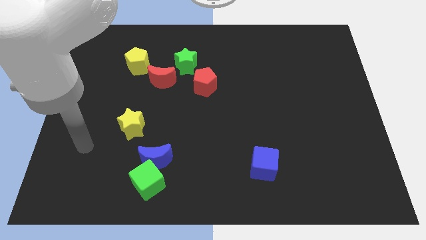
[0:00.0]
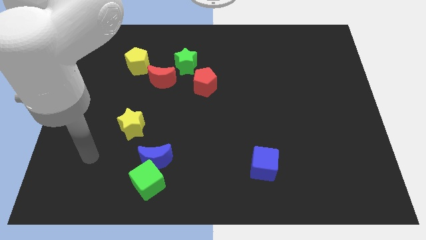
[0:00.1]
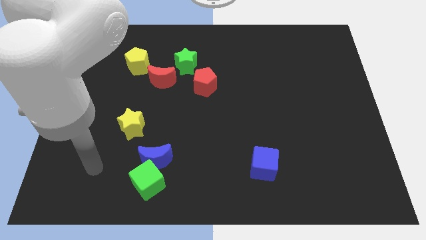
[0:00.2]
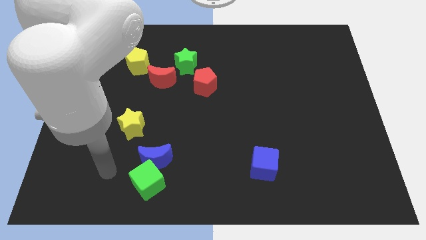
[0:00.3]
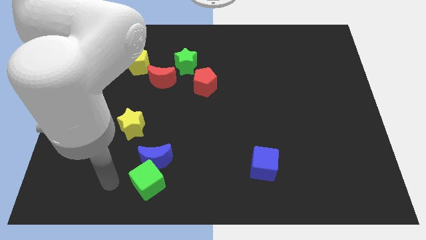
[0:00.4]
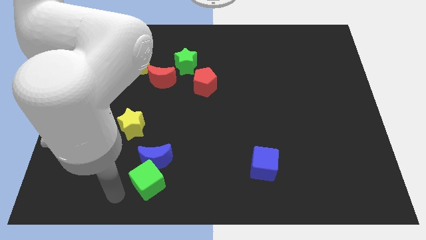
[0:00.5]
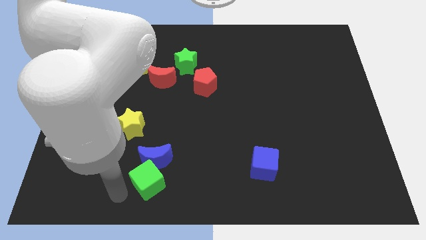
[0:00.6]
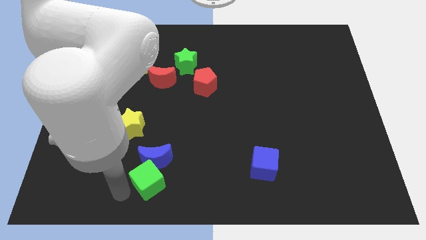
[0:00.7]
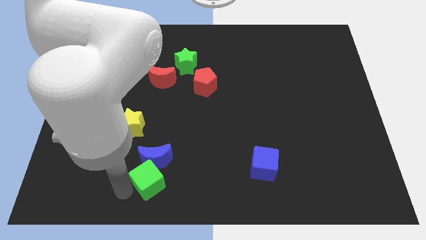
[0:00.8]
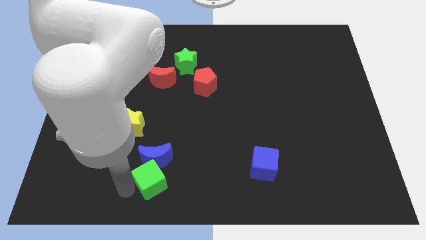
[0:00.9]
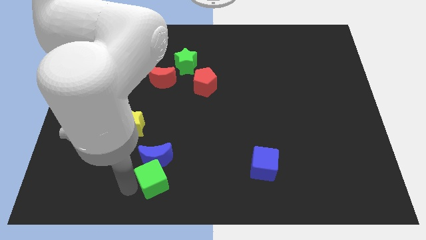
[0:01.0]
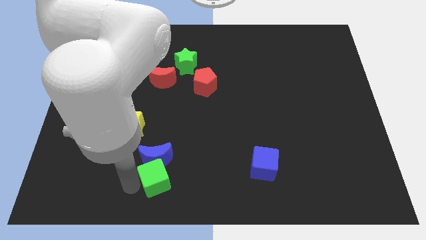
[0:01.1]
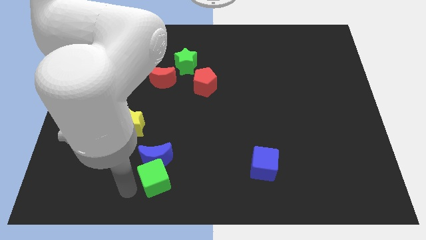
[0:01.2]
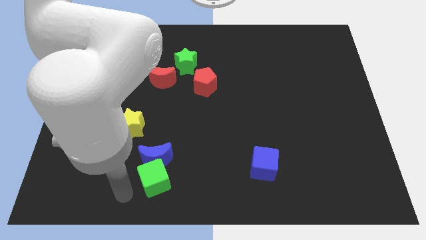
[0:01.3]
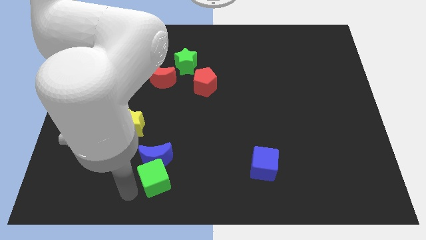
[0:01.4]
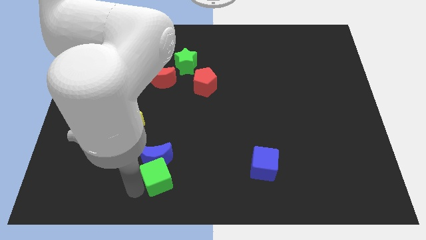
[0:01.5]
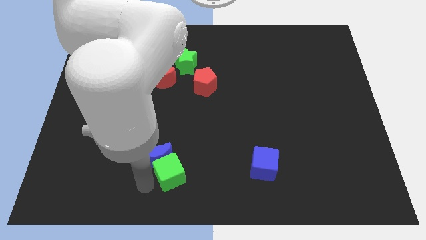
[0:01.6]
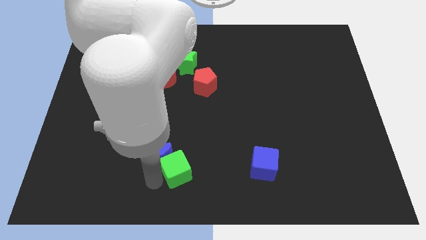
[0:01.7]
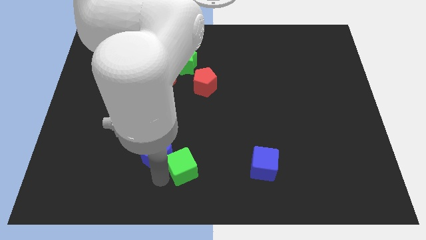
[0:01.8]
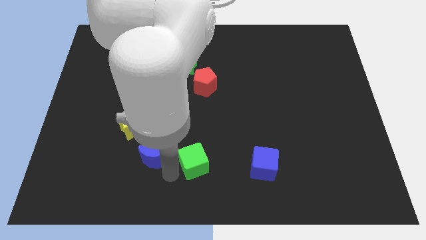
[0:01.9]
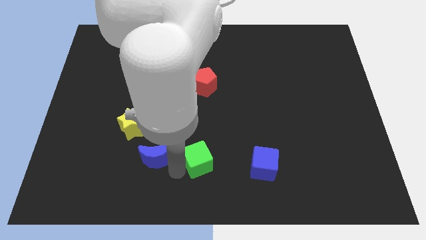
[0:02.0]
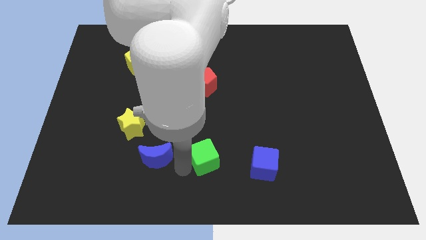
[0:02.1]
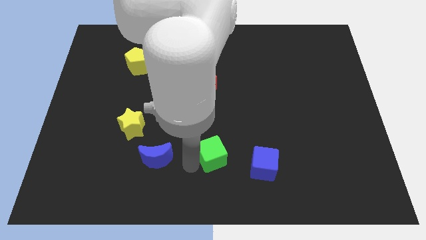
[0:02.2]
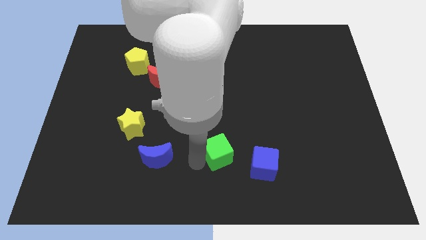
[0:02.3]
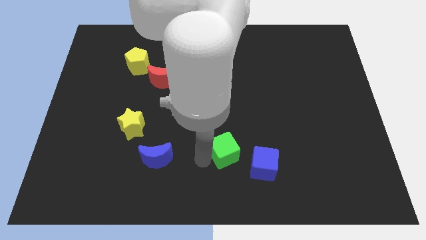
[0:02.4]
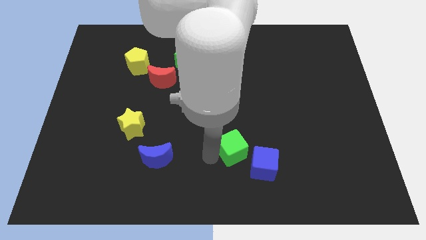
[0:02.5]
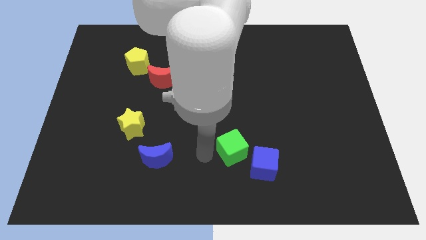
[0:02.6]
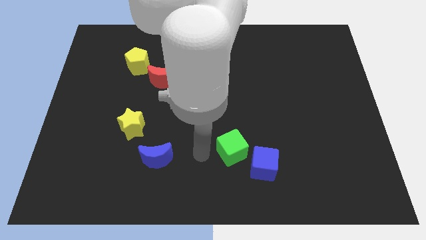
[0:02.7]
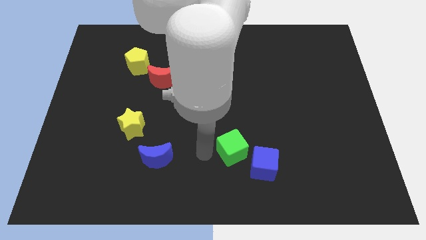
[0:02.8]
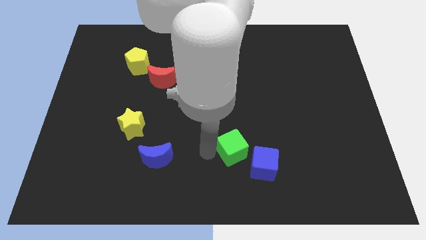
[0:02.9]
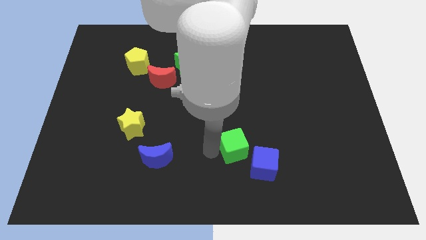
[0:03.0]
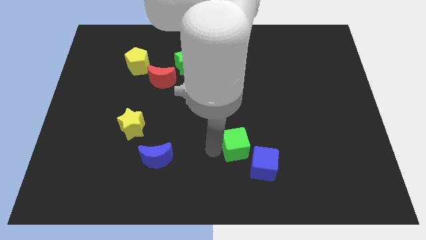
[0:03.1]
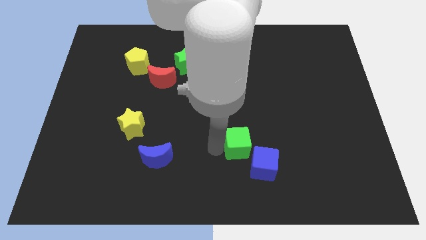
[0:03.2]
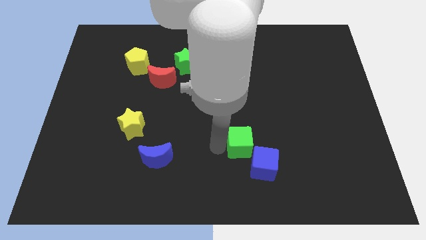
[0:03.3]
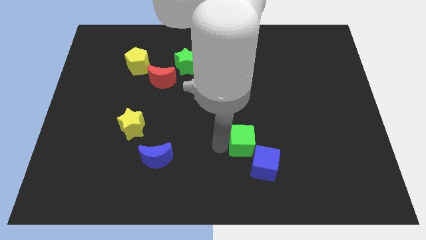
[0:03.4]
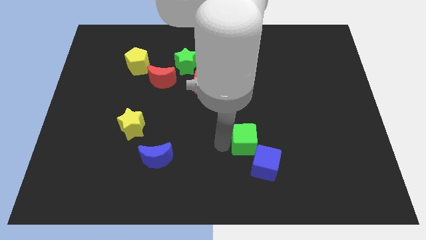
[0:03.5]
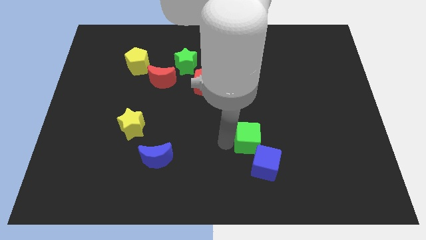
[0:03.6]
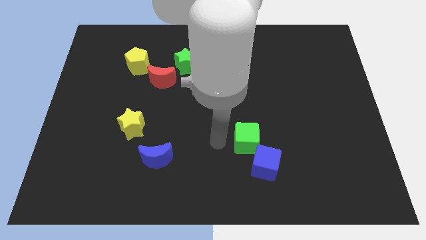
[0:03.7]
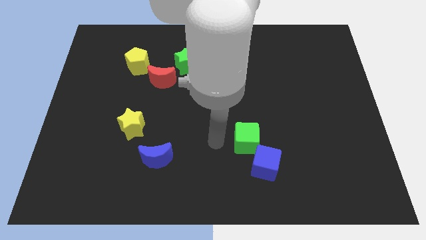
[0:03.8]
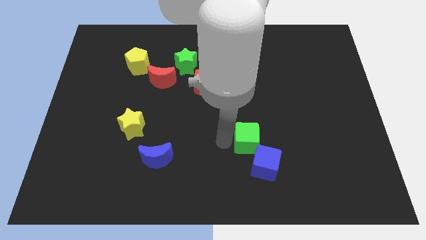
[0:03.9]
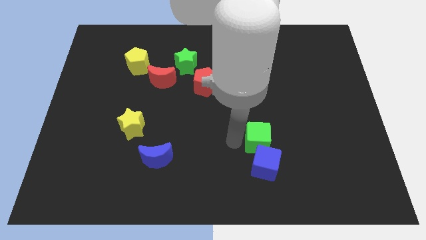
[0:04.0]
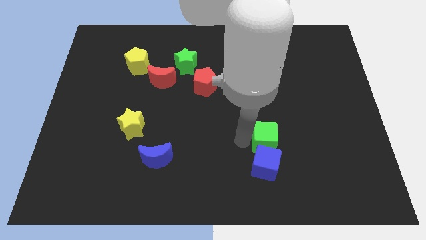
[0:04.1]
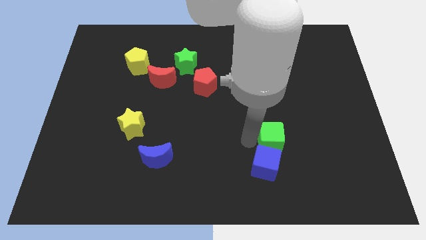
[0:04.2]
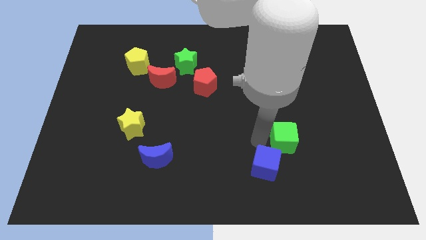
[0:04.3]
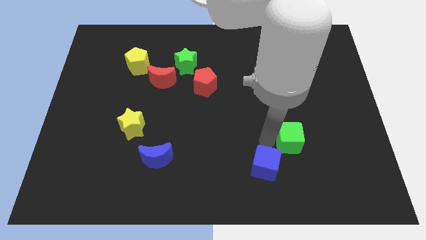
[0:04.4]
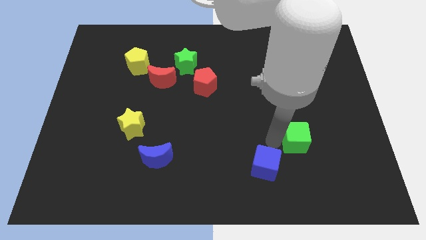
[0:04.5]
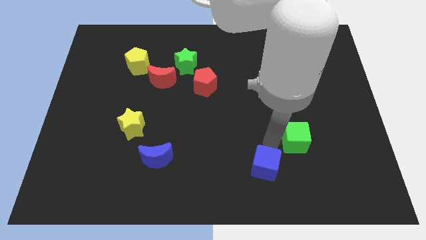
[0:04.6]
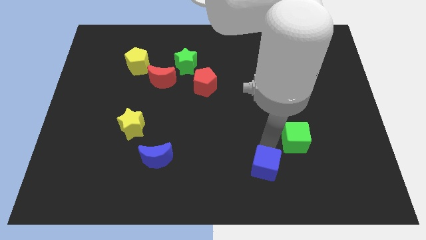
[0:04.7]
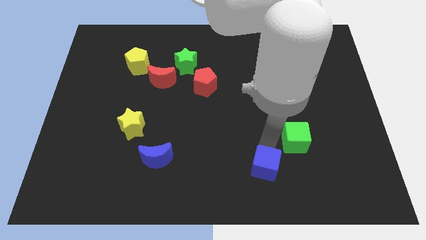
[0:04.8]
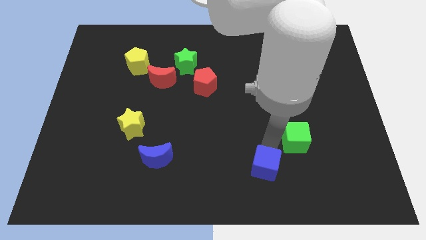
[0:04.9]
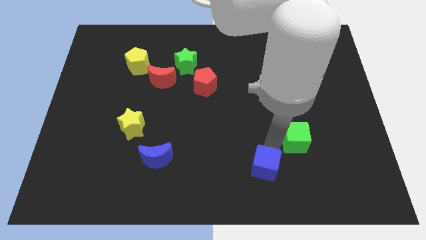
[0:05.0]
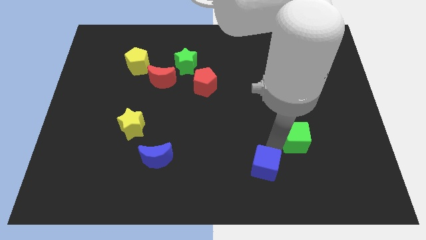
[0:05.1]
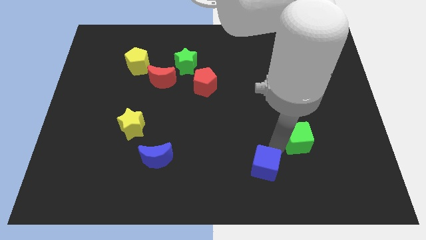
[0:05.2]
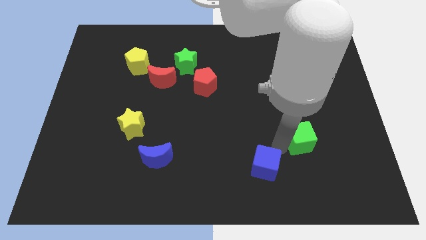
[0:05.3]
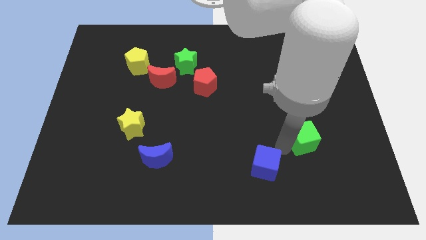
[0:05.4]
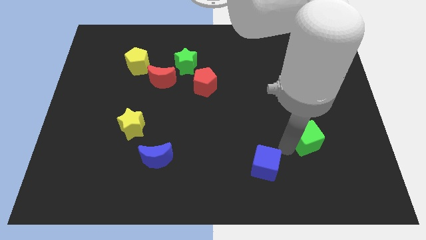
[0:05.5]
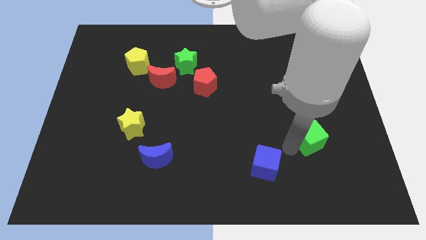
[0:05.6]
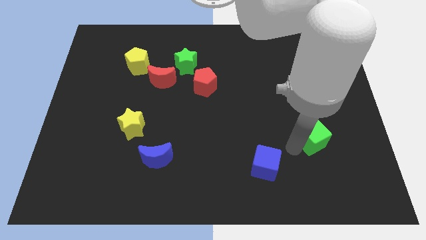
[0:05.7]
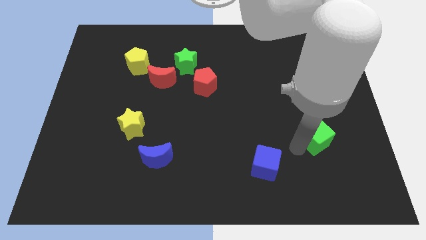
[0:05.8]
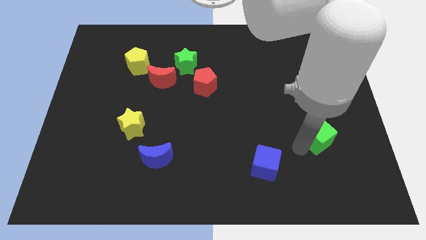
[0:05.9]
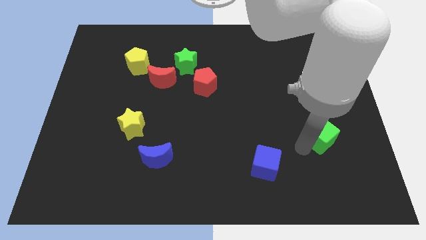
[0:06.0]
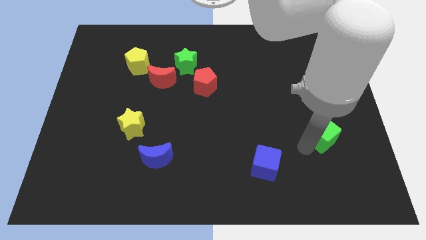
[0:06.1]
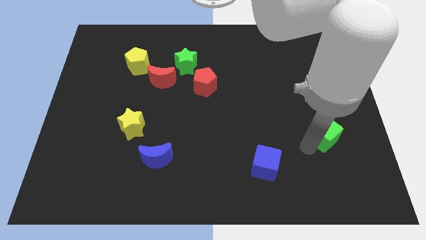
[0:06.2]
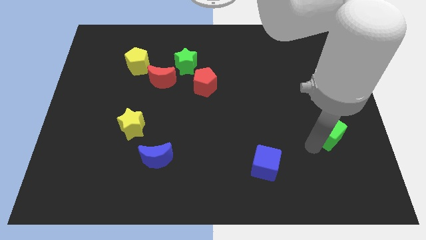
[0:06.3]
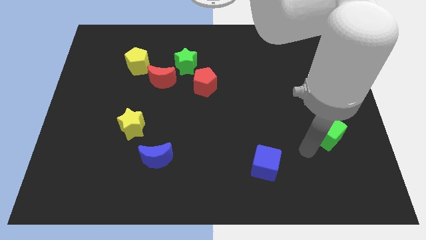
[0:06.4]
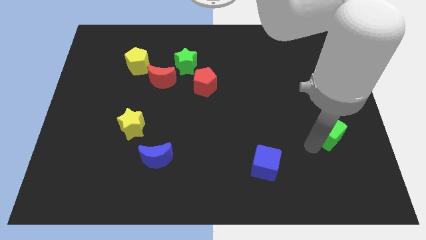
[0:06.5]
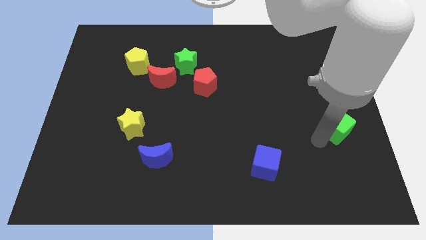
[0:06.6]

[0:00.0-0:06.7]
slide the green cube to the right side
